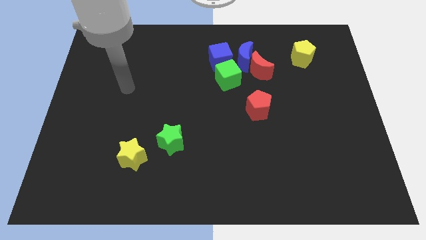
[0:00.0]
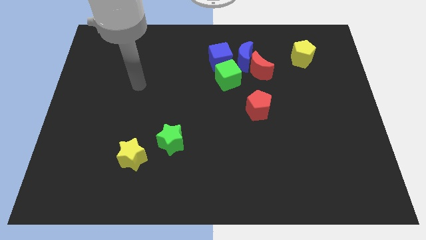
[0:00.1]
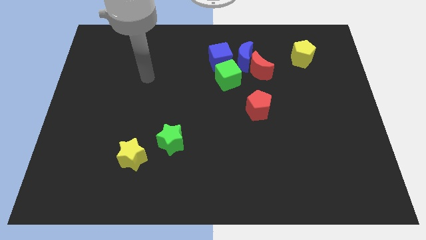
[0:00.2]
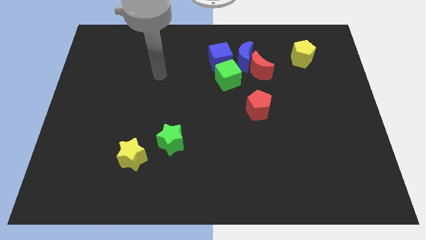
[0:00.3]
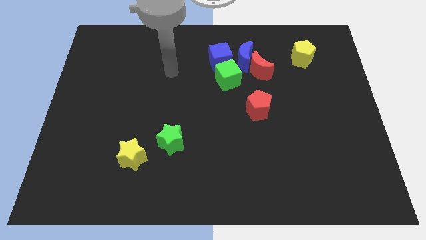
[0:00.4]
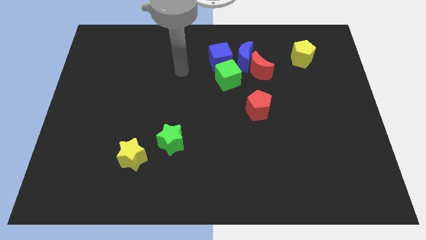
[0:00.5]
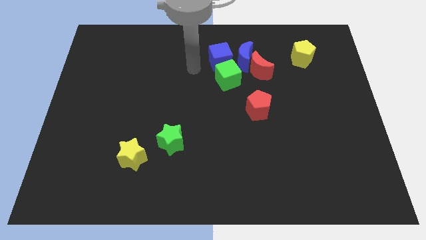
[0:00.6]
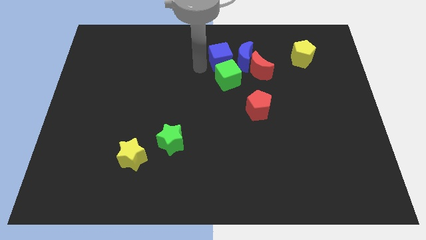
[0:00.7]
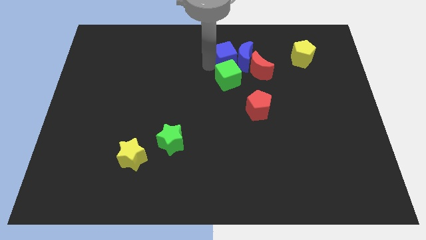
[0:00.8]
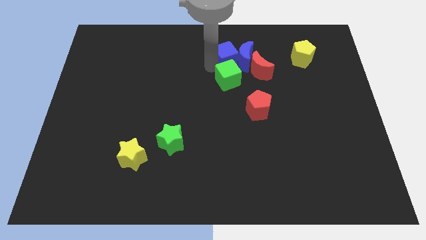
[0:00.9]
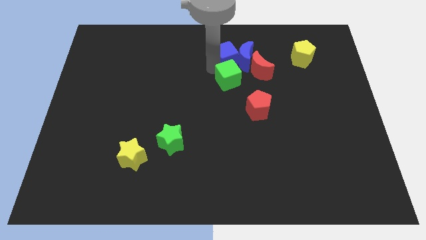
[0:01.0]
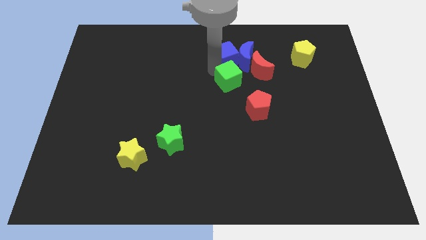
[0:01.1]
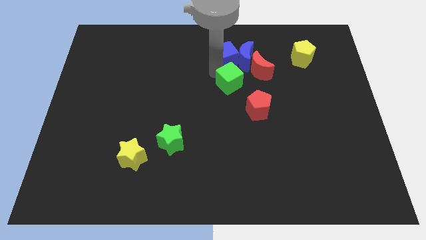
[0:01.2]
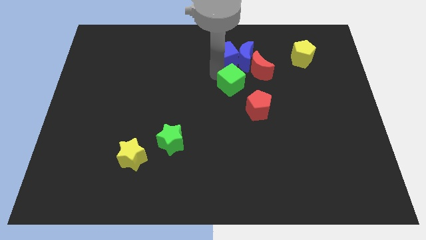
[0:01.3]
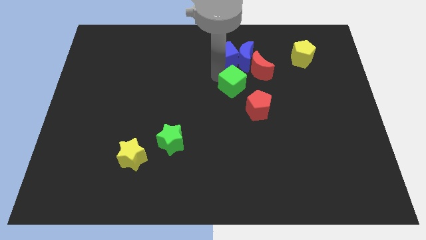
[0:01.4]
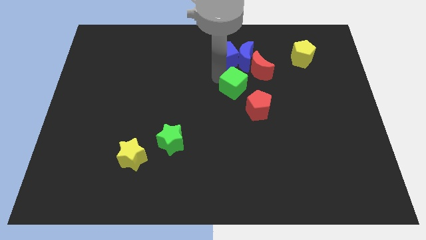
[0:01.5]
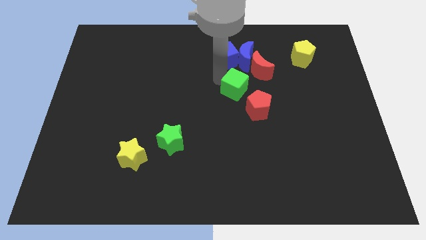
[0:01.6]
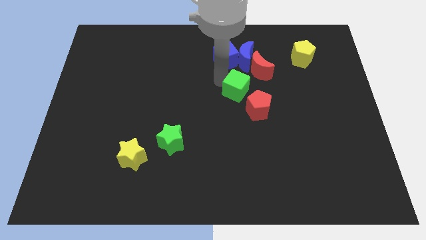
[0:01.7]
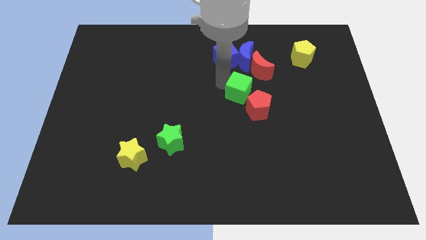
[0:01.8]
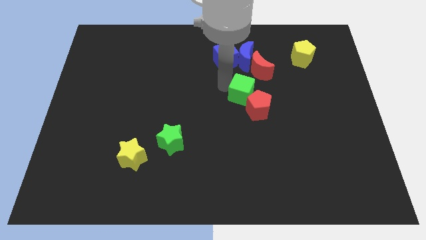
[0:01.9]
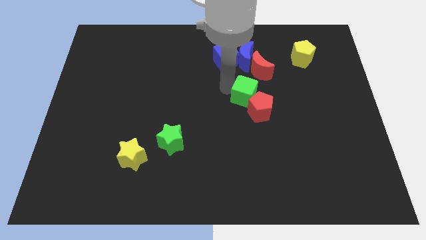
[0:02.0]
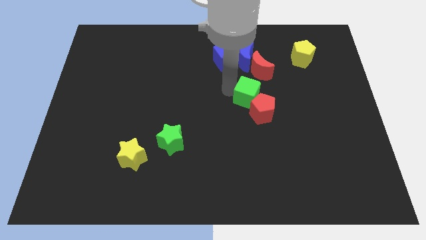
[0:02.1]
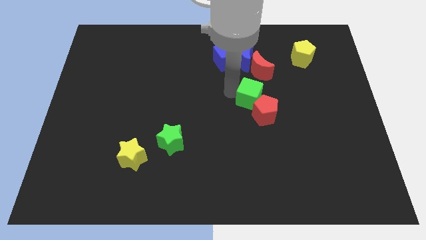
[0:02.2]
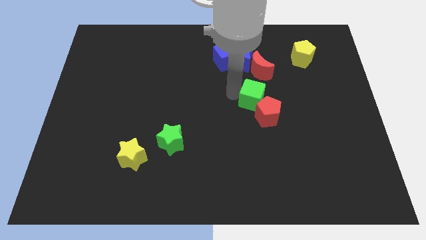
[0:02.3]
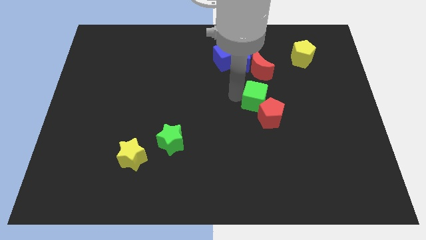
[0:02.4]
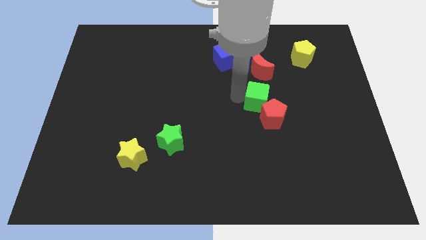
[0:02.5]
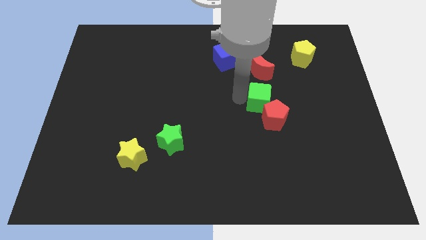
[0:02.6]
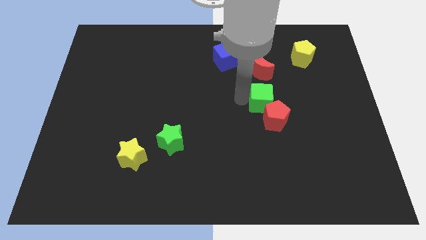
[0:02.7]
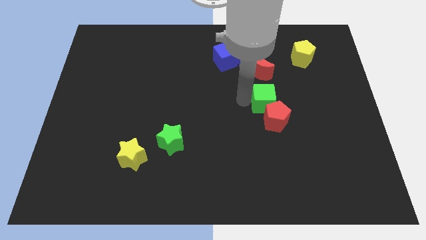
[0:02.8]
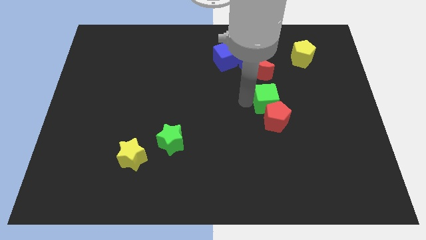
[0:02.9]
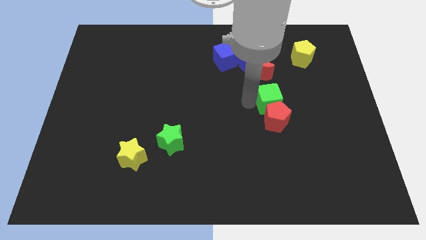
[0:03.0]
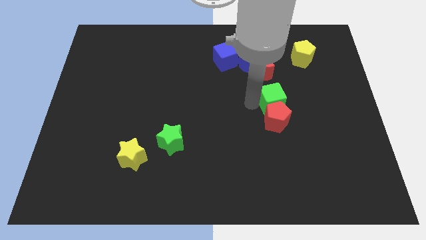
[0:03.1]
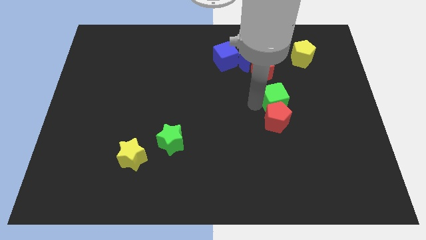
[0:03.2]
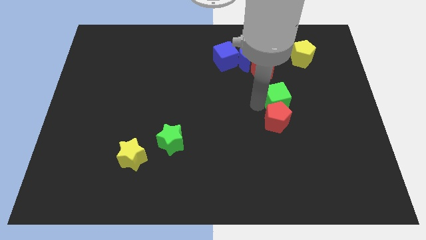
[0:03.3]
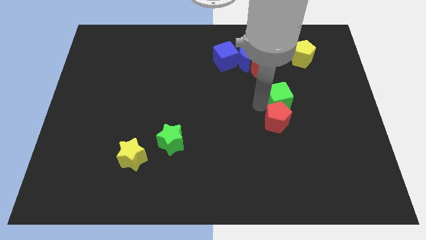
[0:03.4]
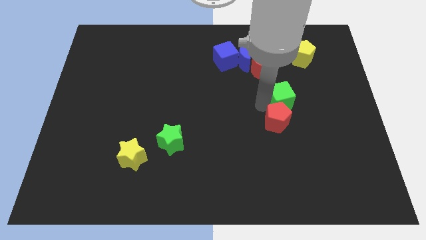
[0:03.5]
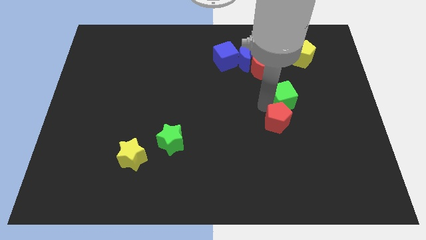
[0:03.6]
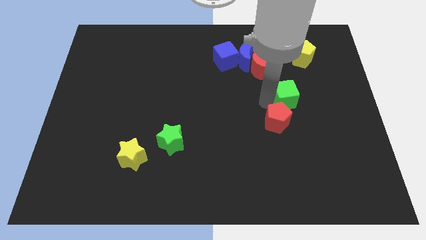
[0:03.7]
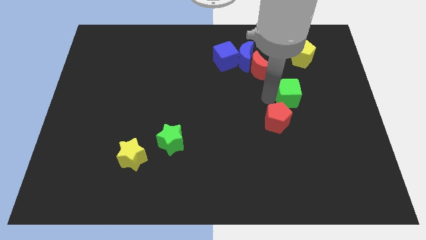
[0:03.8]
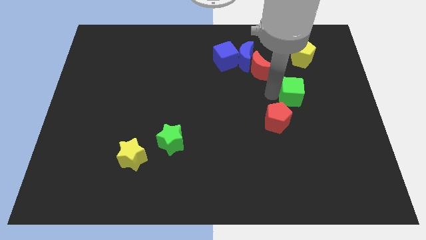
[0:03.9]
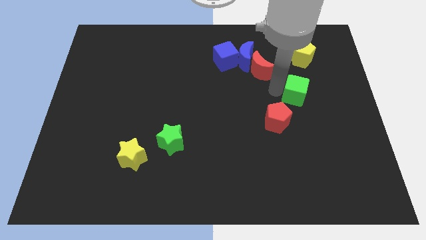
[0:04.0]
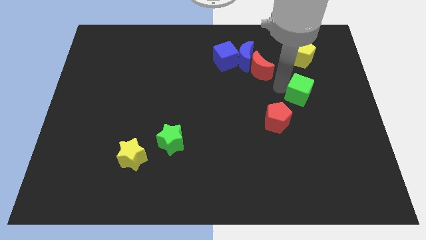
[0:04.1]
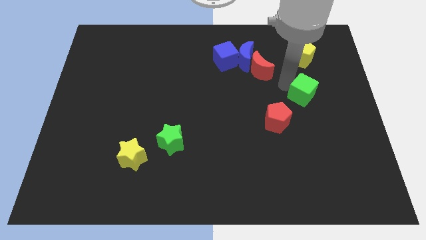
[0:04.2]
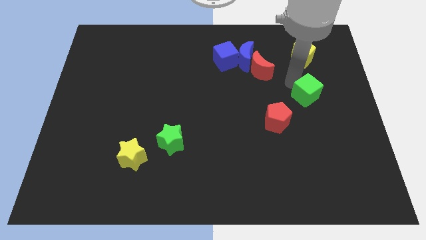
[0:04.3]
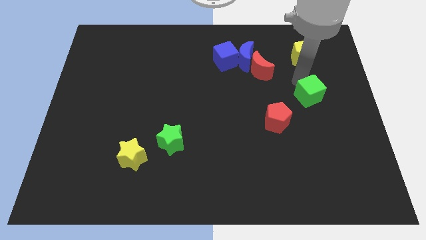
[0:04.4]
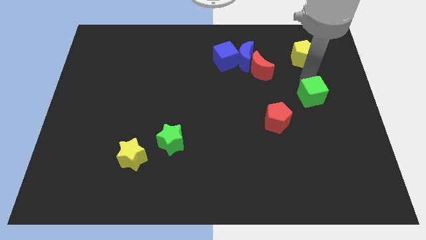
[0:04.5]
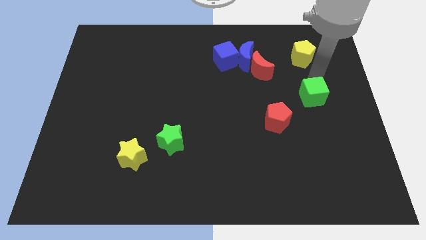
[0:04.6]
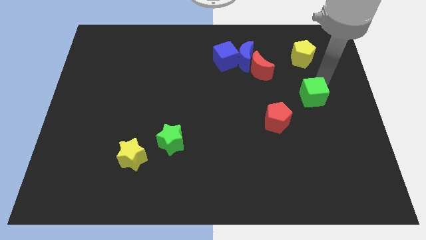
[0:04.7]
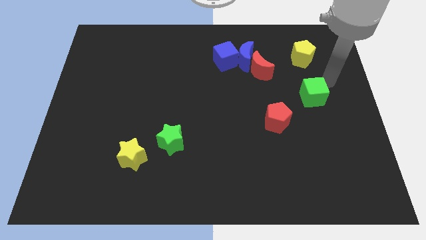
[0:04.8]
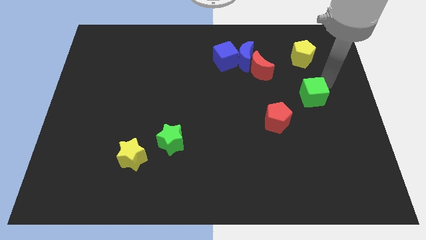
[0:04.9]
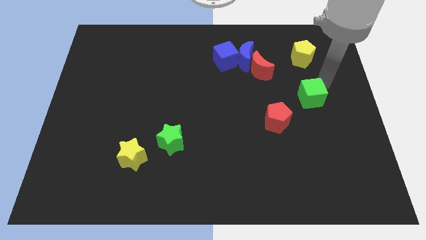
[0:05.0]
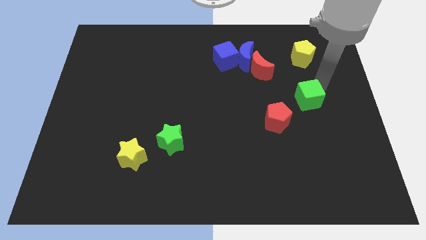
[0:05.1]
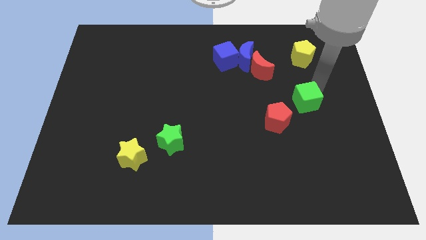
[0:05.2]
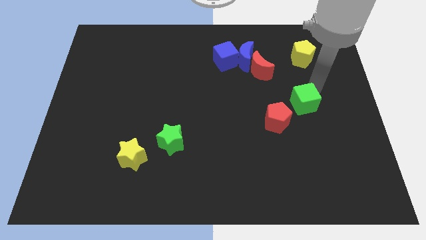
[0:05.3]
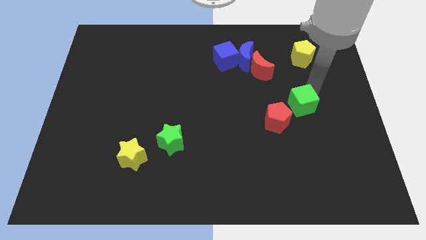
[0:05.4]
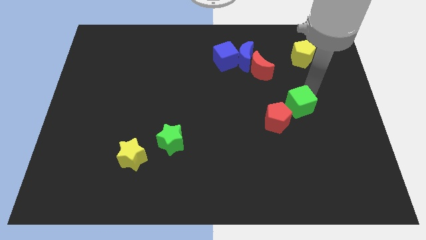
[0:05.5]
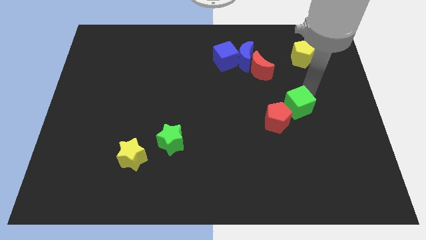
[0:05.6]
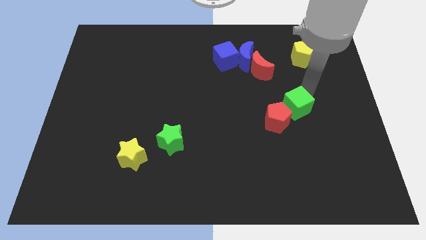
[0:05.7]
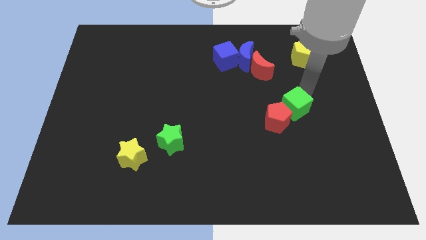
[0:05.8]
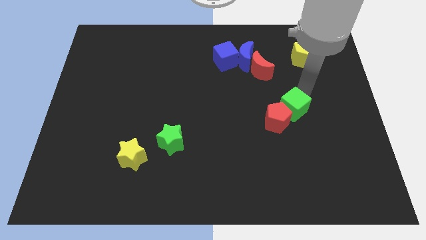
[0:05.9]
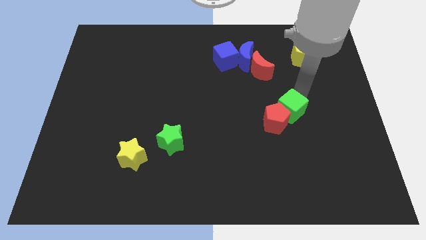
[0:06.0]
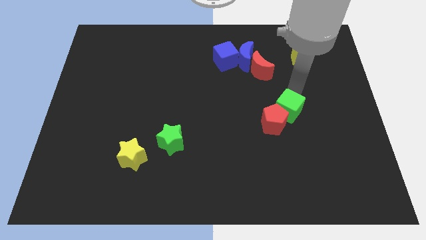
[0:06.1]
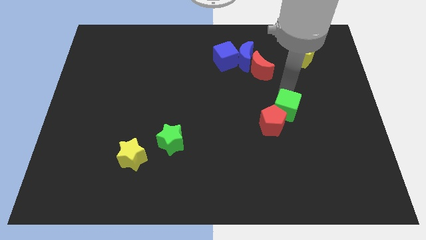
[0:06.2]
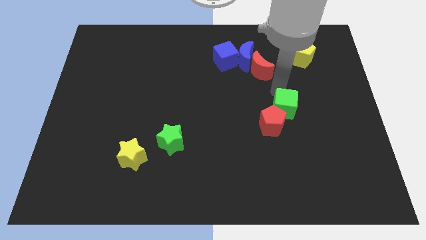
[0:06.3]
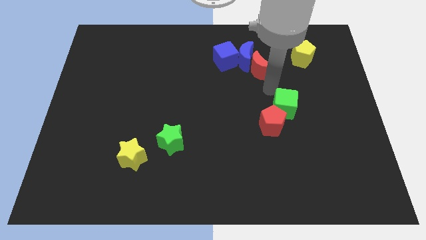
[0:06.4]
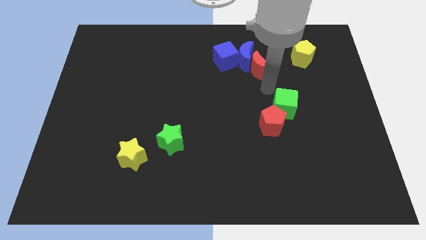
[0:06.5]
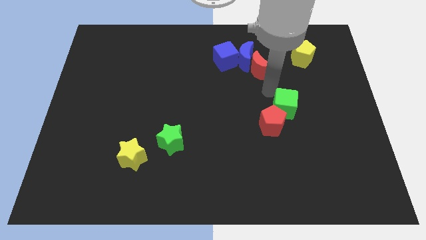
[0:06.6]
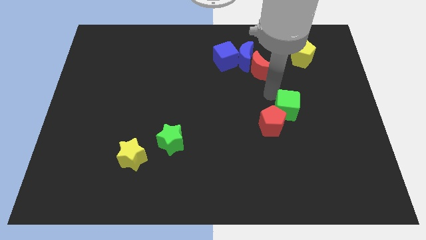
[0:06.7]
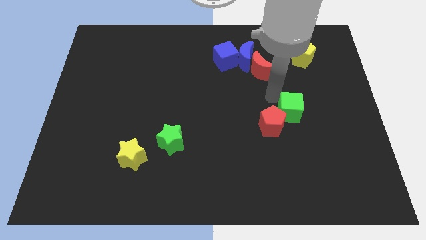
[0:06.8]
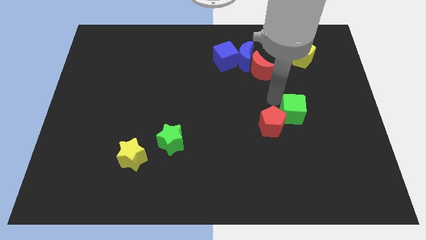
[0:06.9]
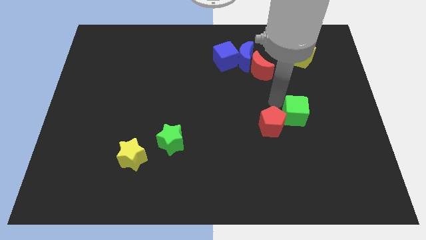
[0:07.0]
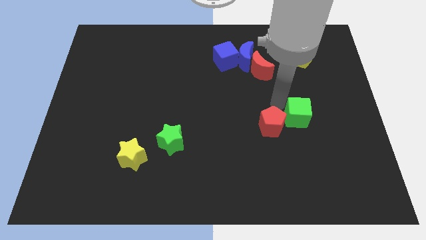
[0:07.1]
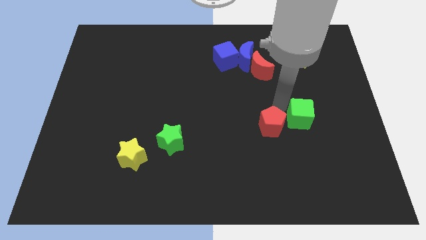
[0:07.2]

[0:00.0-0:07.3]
slide the green cube downwards and to the right

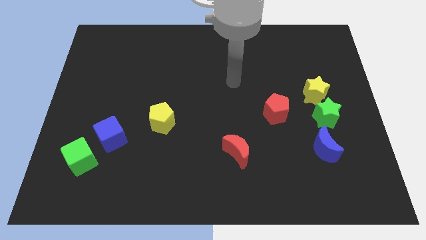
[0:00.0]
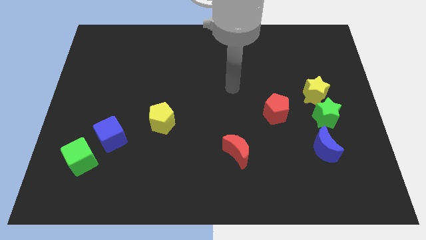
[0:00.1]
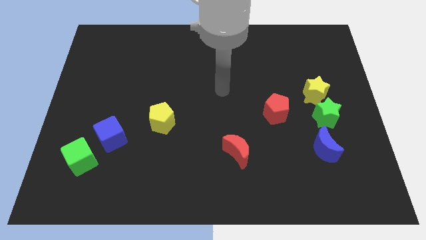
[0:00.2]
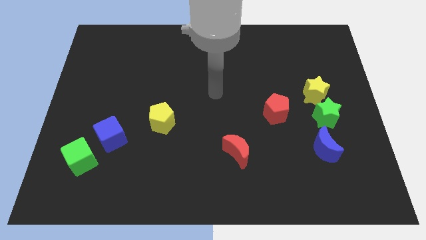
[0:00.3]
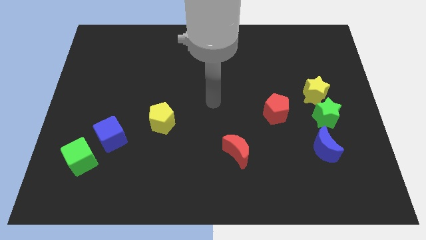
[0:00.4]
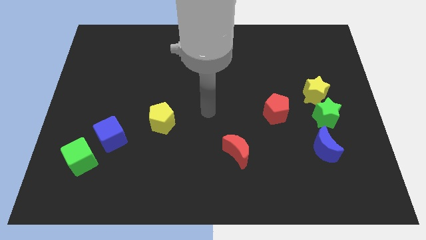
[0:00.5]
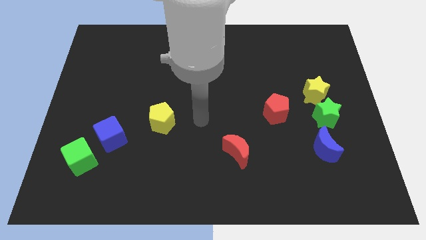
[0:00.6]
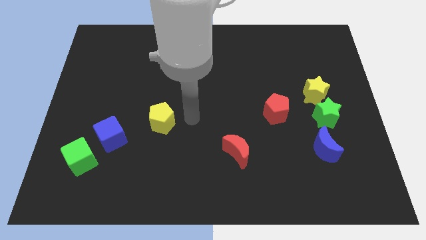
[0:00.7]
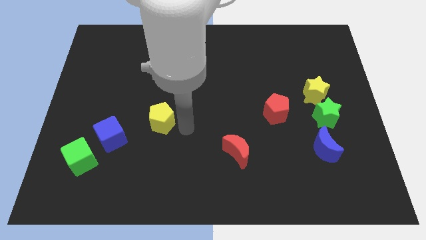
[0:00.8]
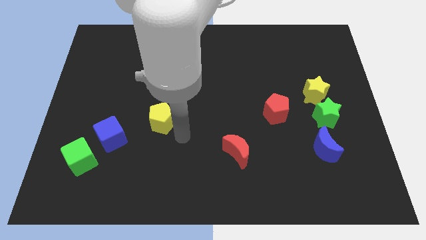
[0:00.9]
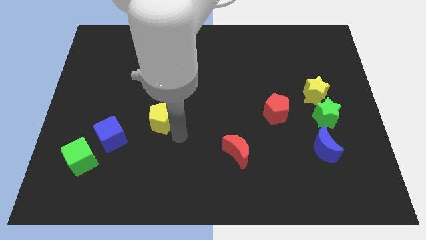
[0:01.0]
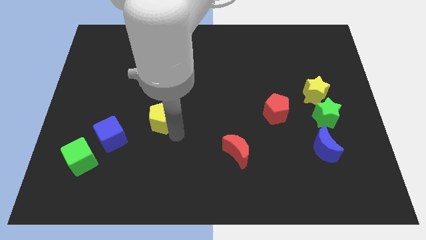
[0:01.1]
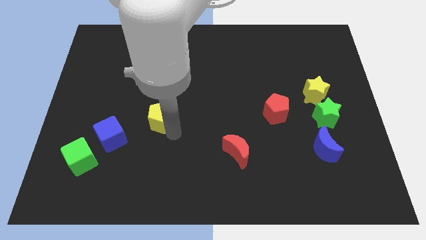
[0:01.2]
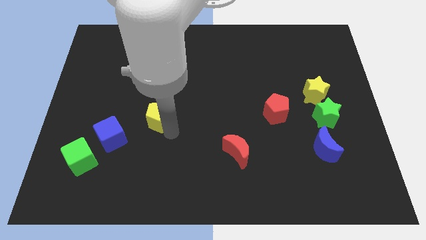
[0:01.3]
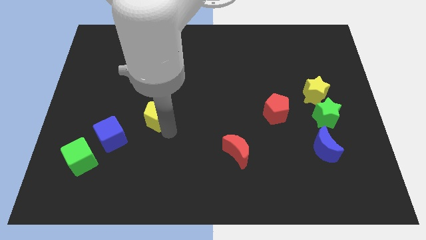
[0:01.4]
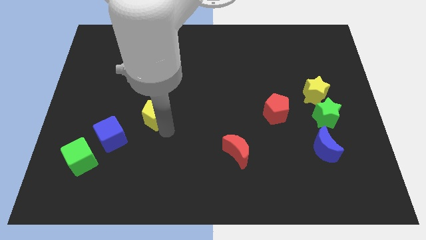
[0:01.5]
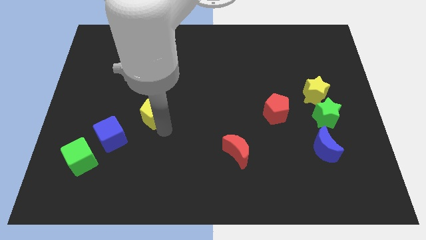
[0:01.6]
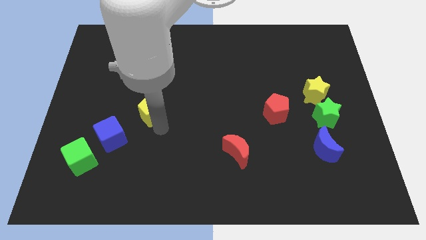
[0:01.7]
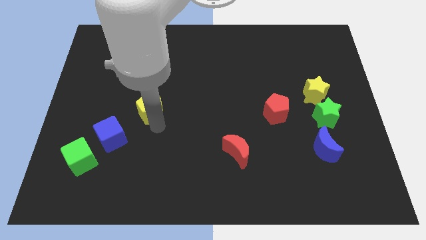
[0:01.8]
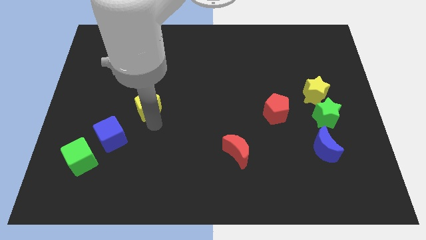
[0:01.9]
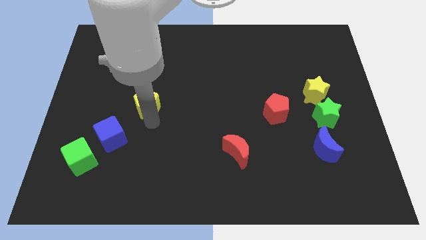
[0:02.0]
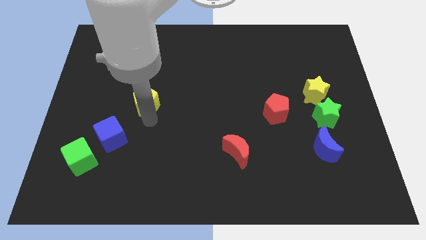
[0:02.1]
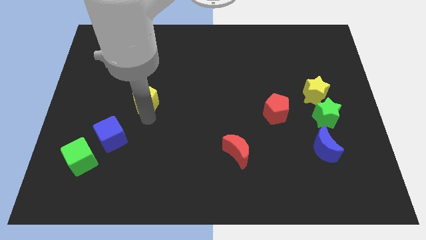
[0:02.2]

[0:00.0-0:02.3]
slightly move the yellow pentagon up and left
